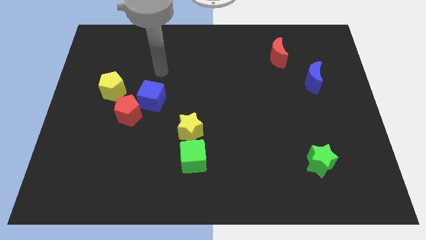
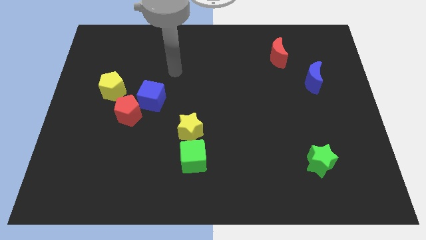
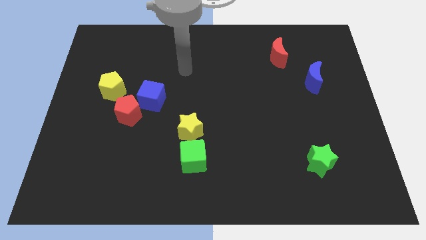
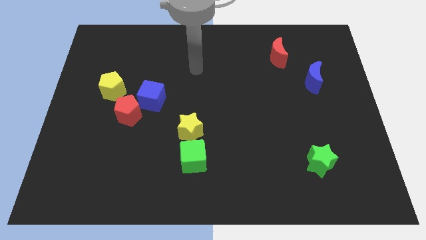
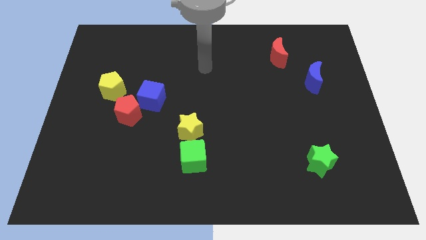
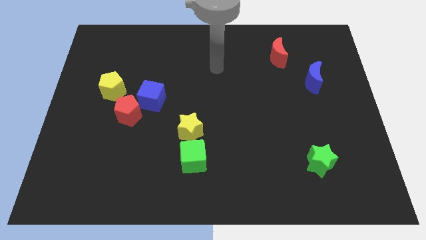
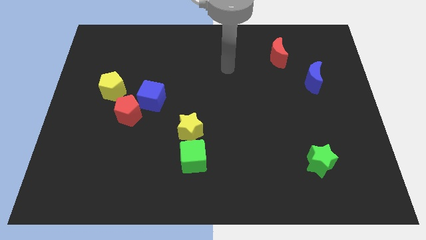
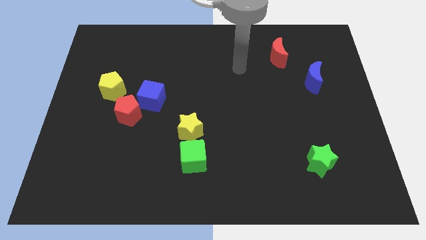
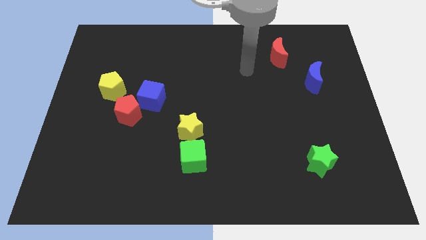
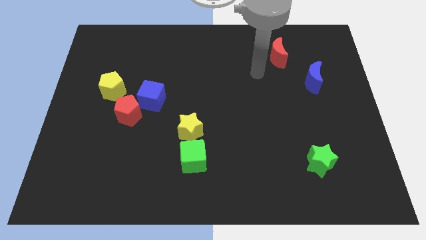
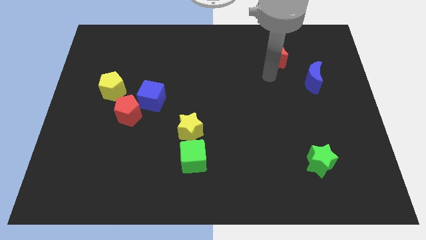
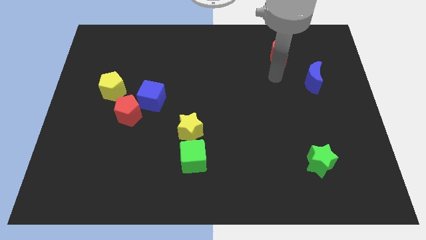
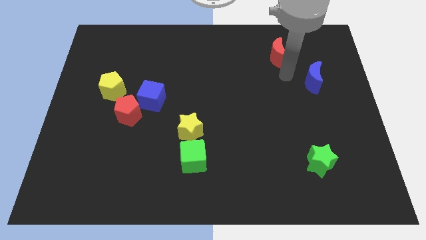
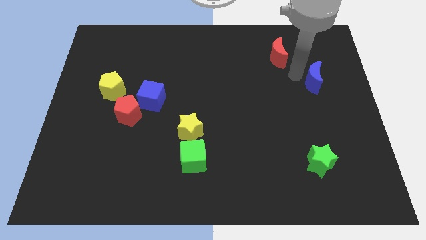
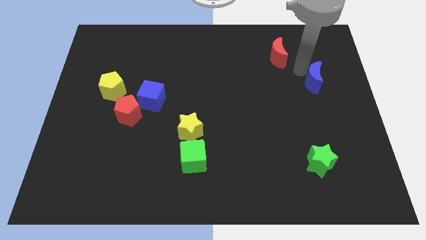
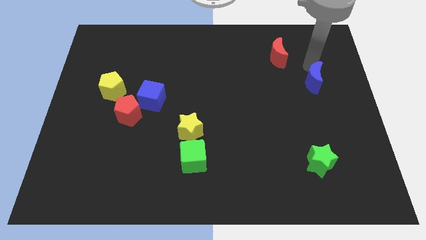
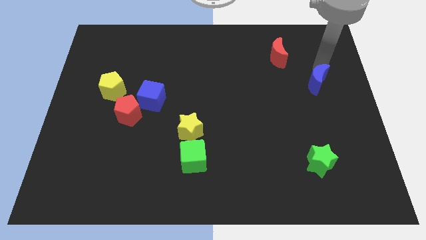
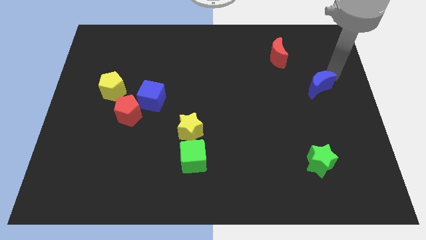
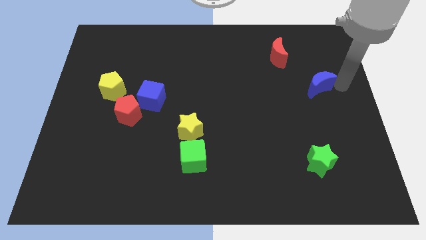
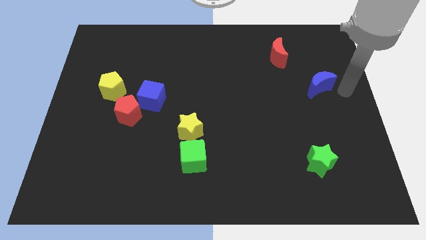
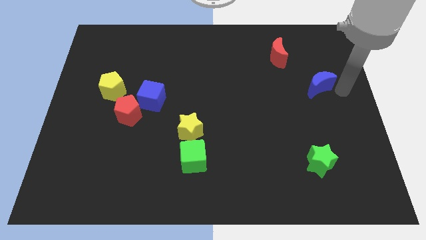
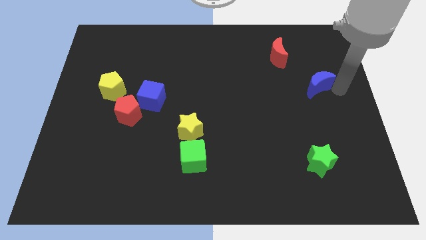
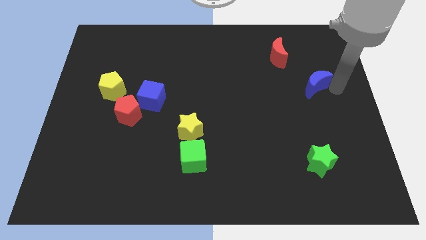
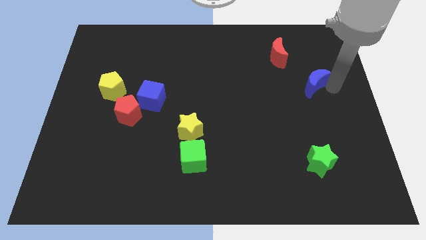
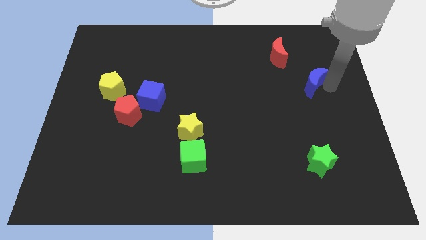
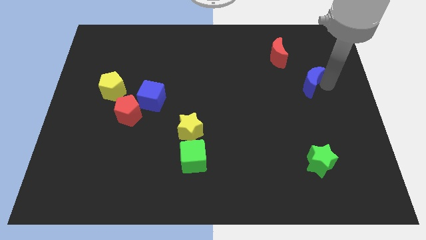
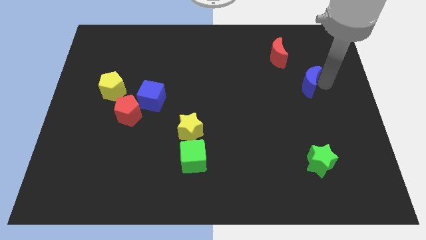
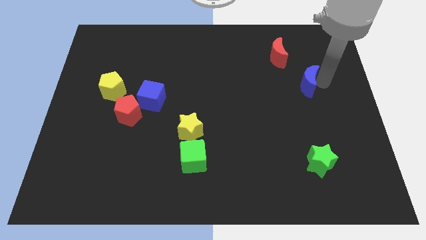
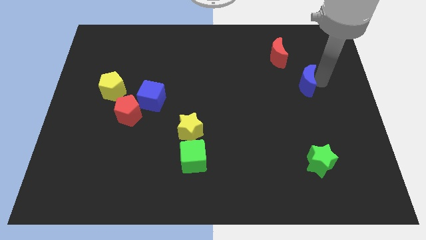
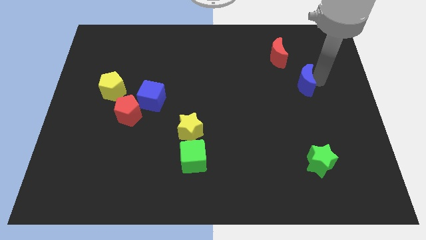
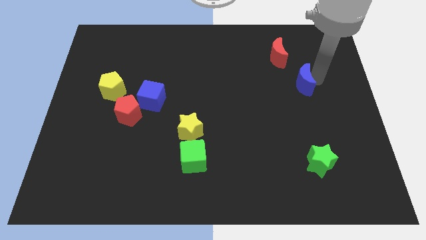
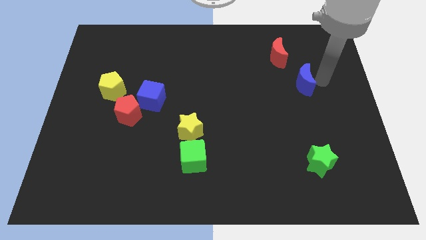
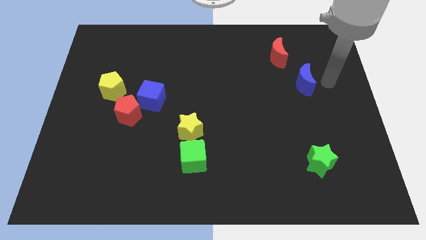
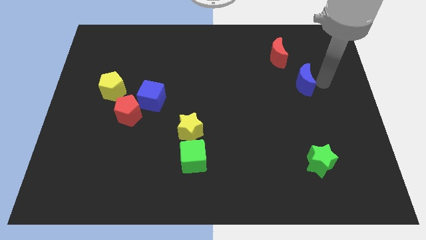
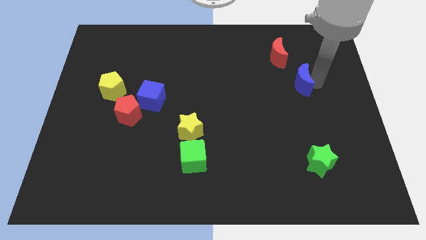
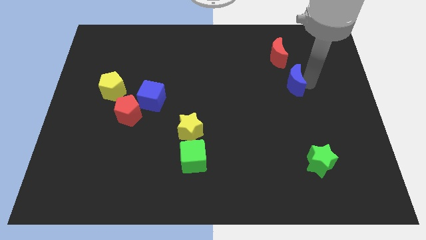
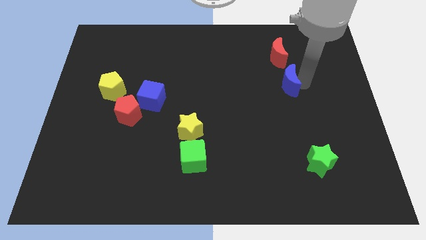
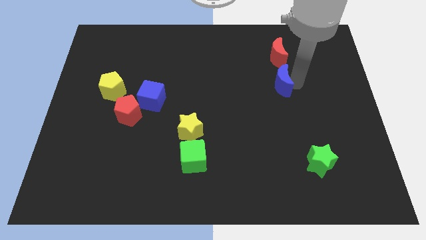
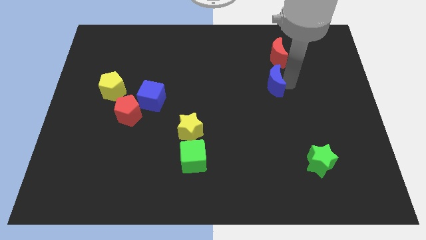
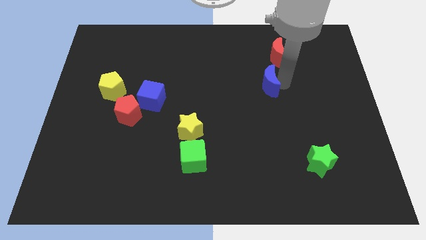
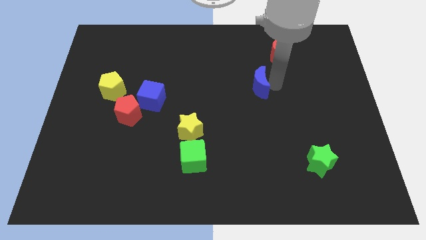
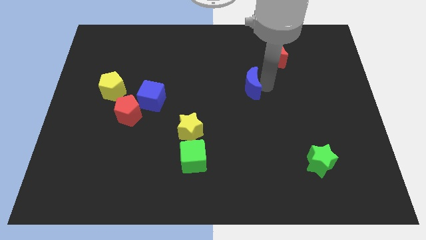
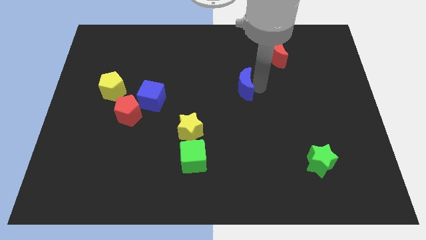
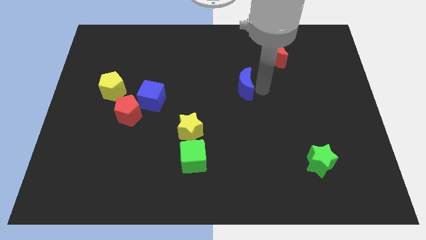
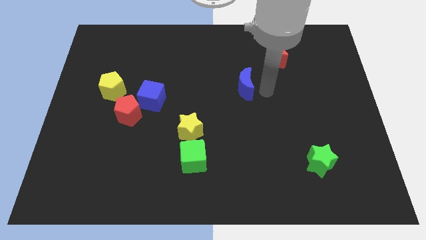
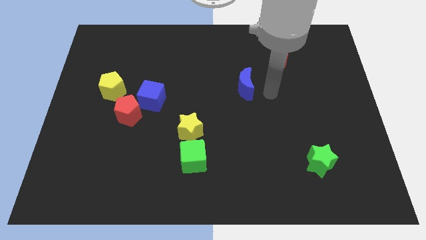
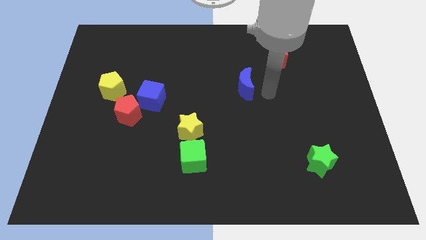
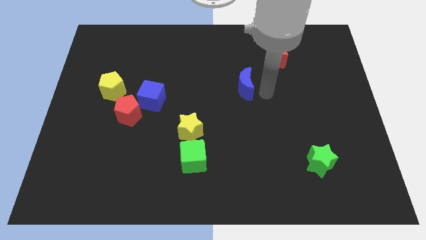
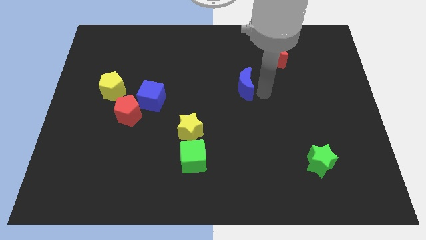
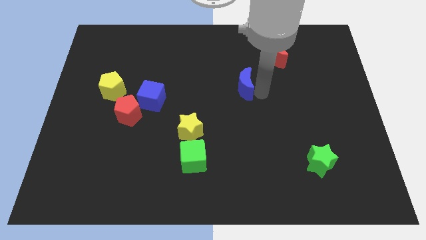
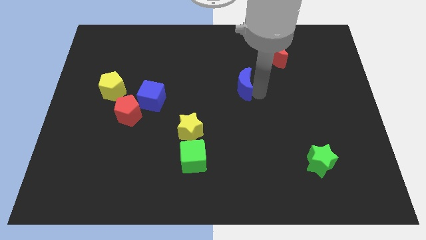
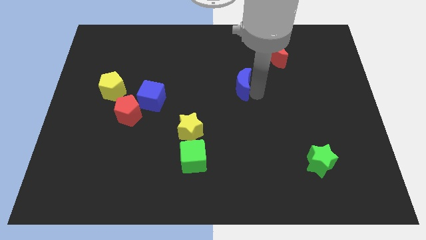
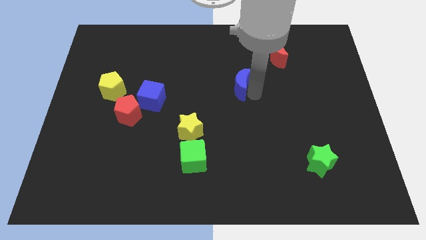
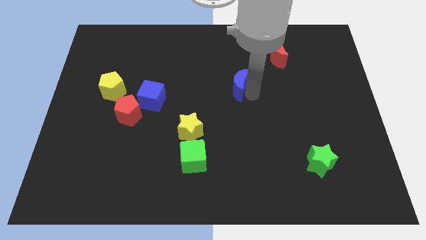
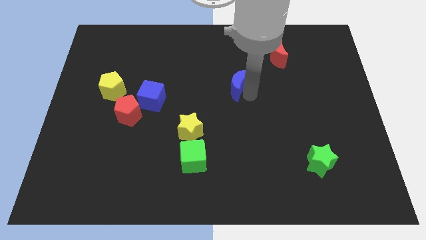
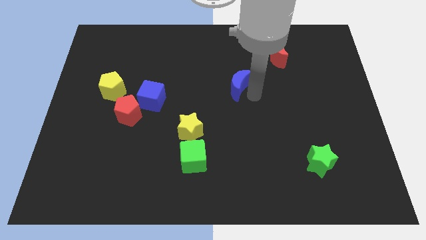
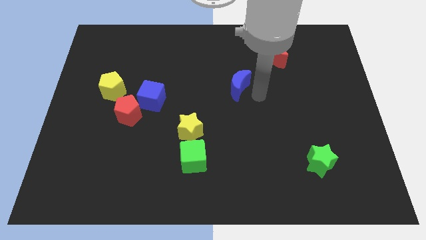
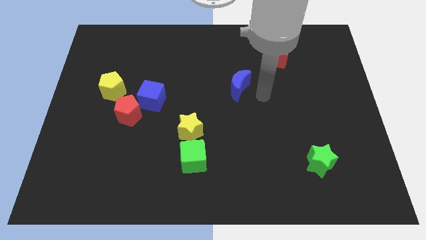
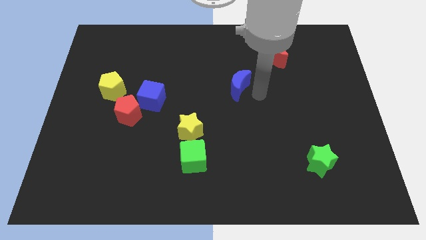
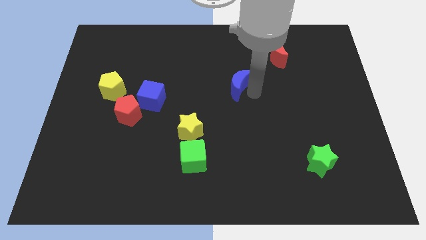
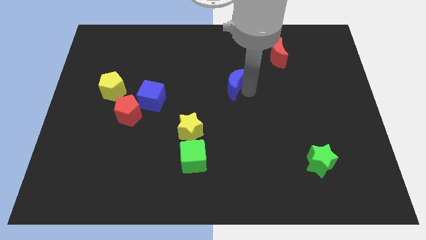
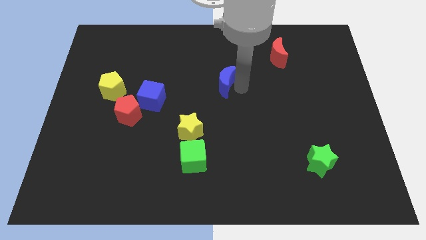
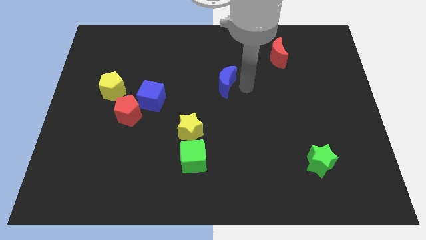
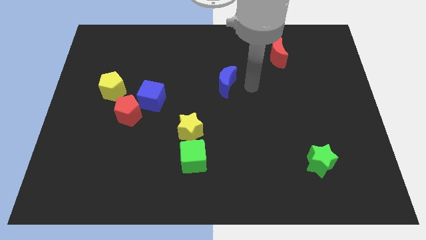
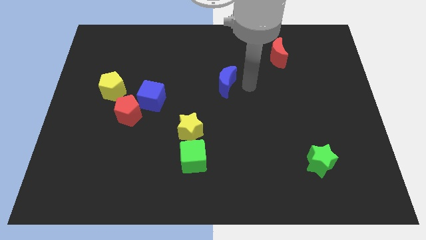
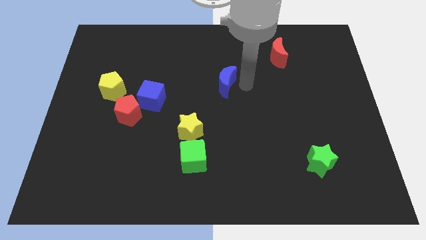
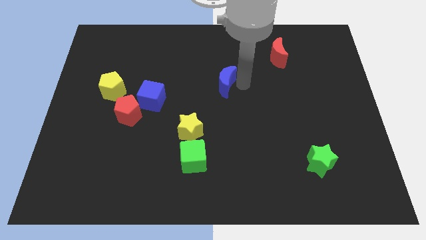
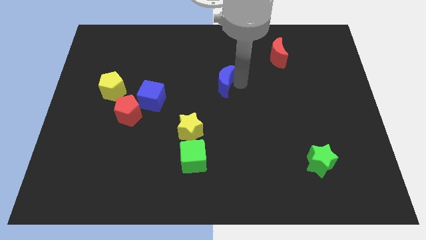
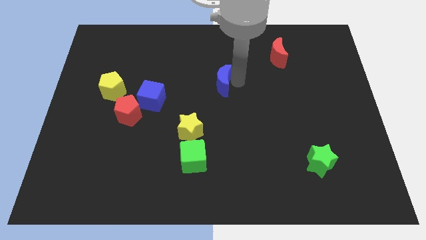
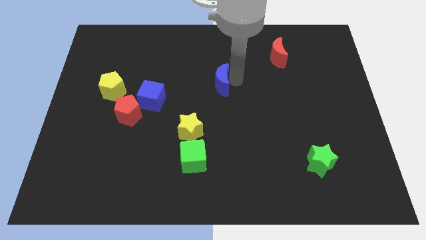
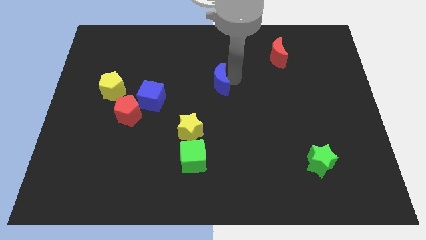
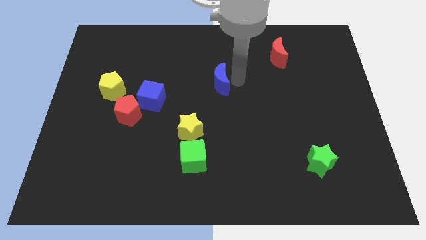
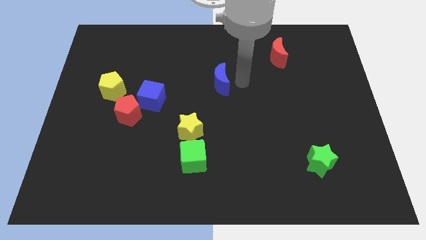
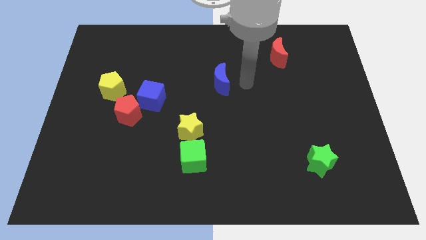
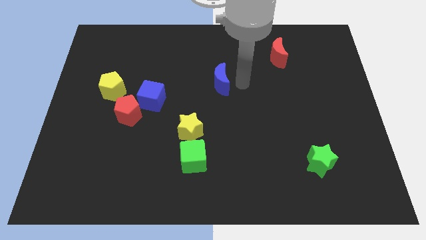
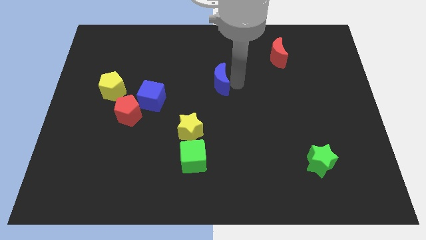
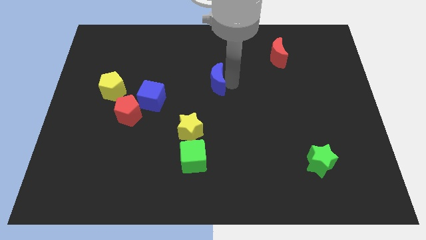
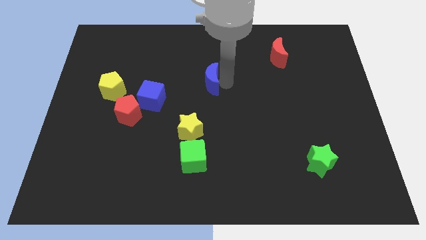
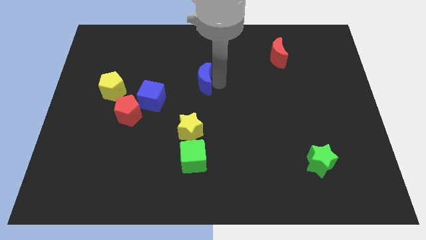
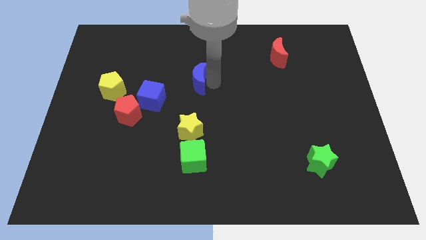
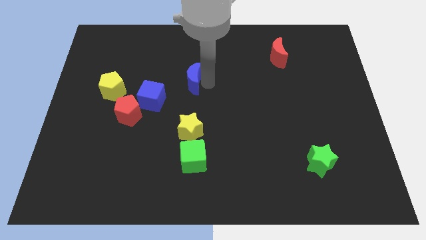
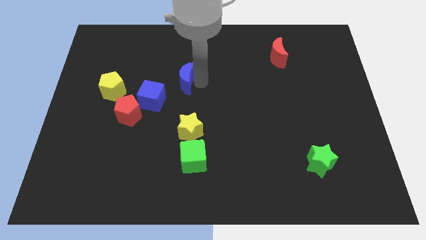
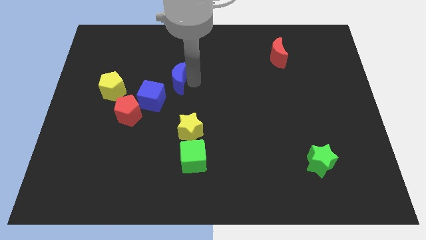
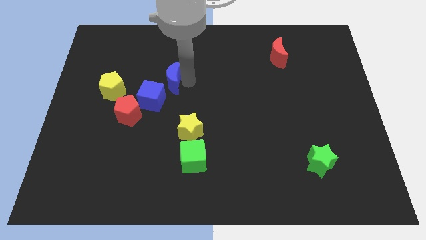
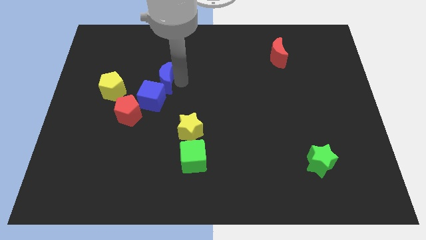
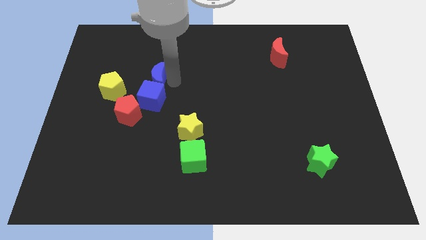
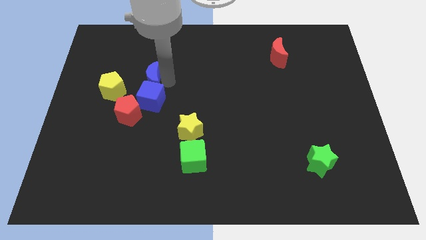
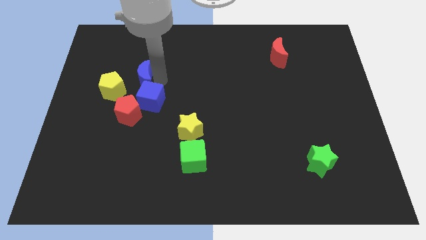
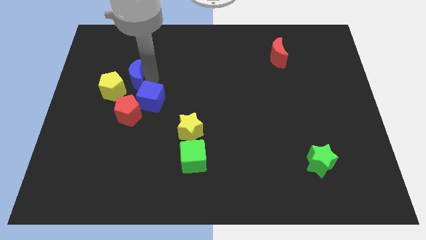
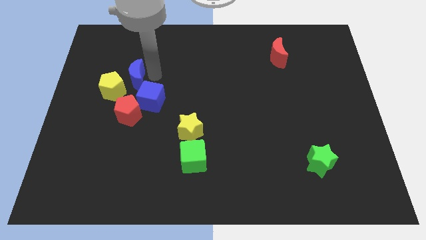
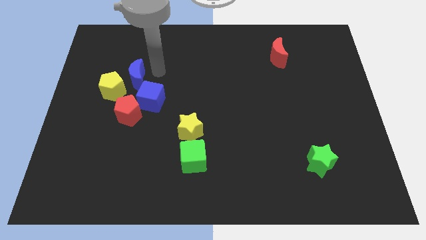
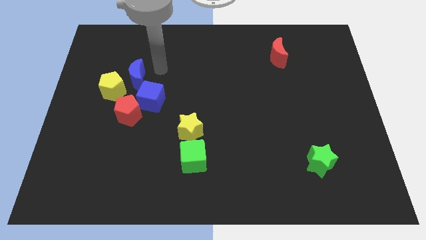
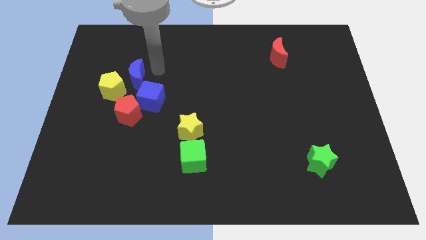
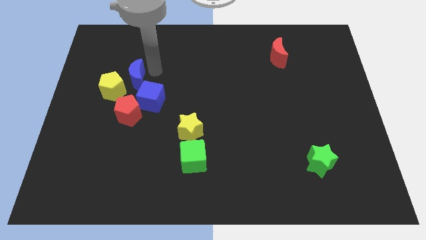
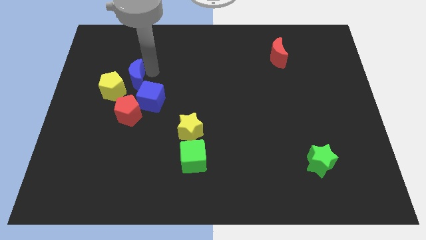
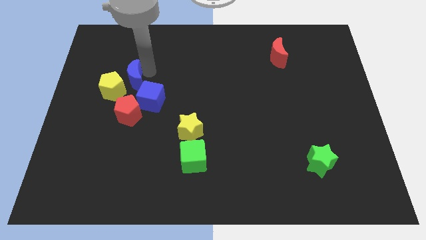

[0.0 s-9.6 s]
push the blue moon towards the yellow pentagon
